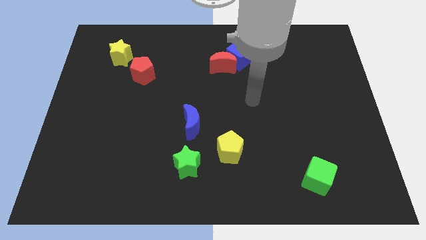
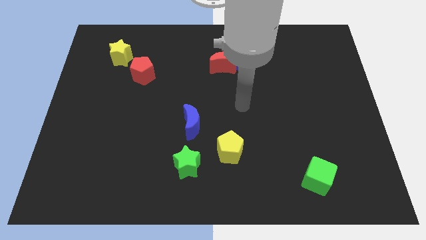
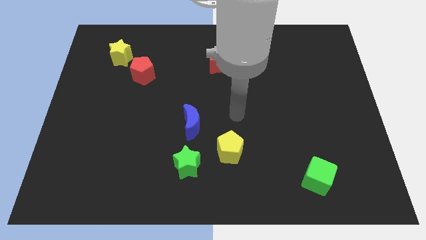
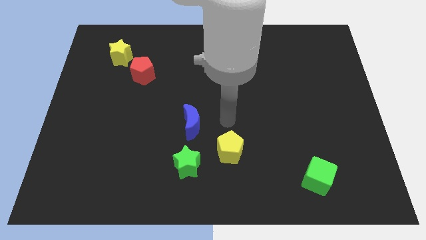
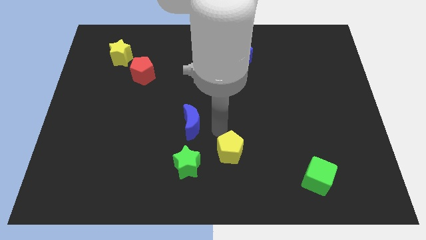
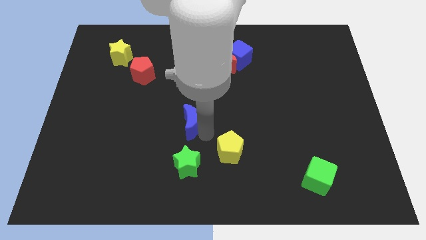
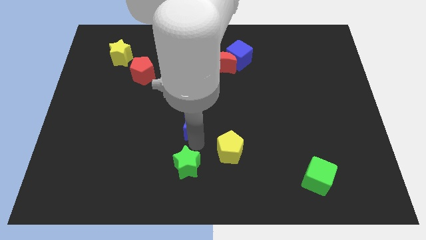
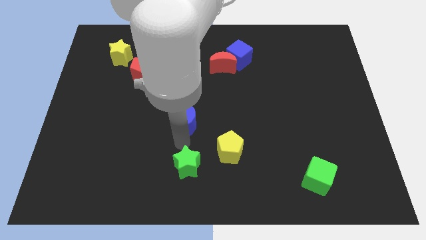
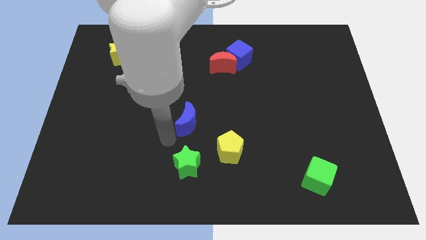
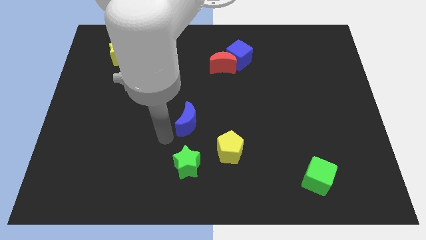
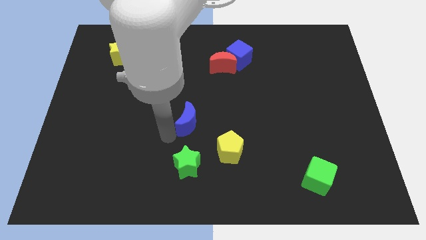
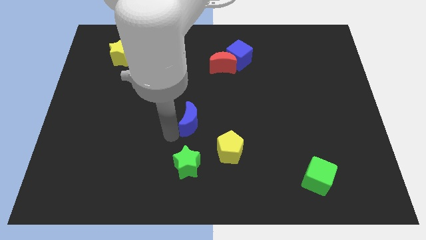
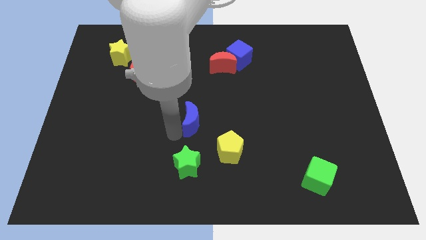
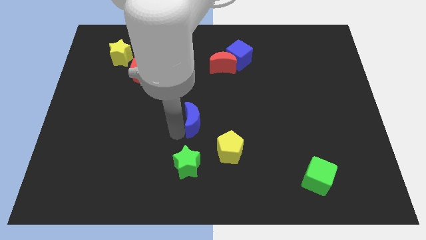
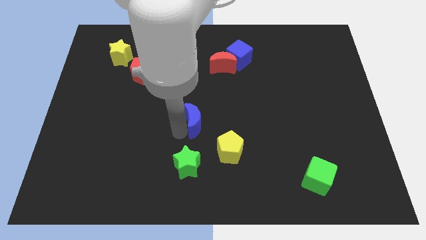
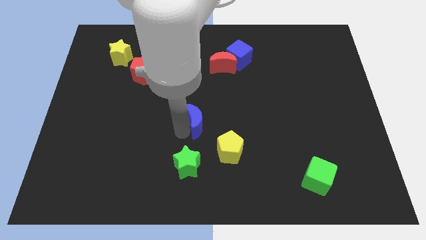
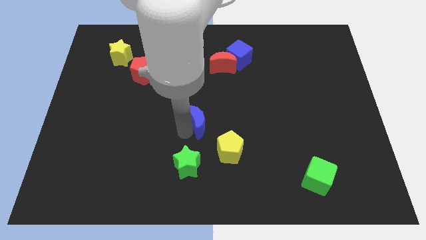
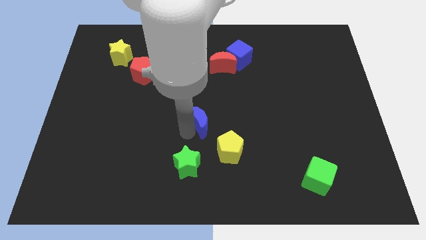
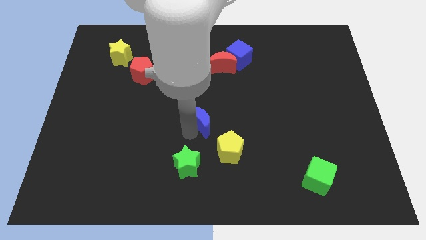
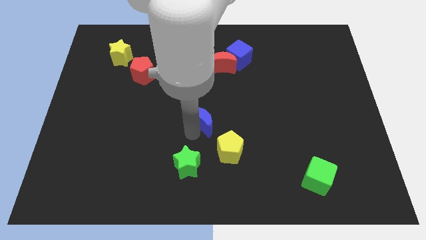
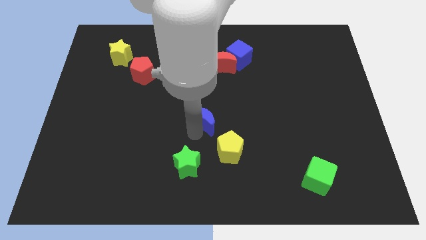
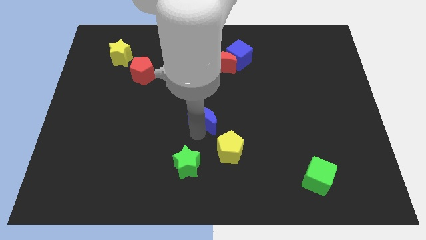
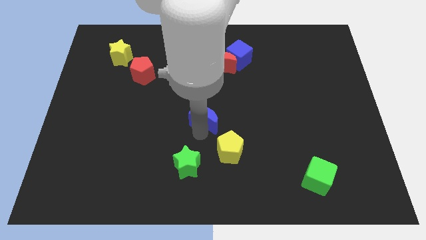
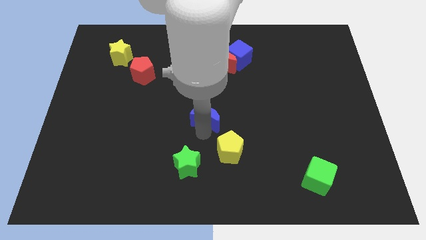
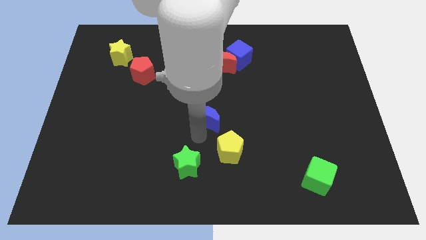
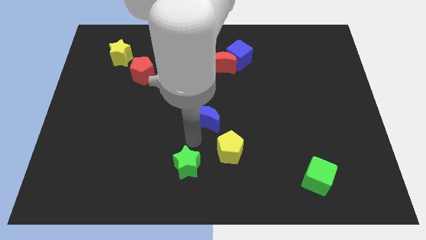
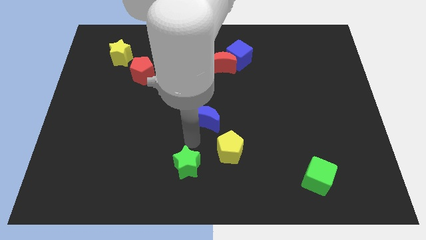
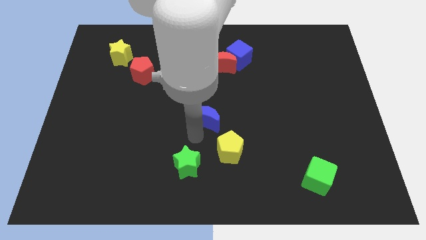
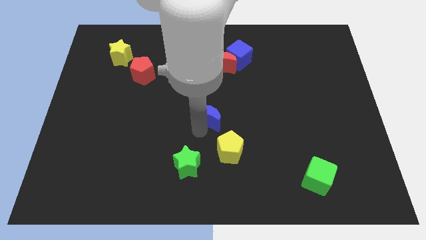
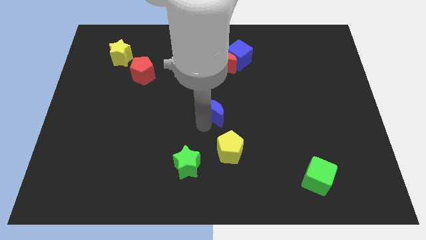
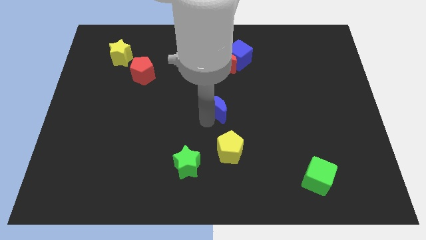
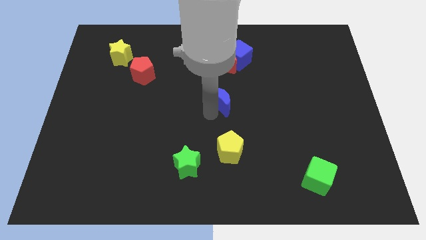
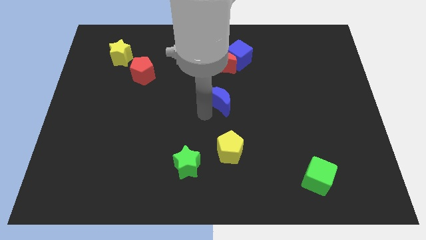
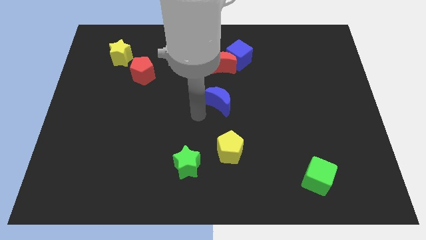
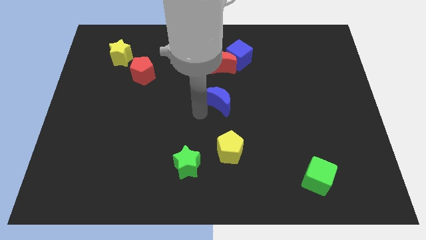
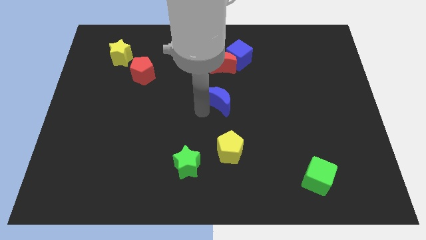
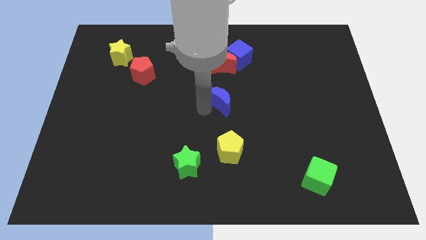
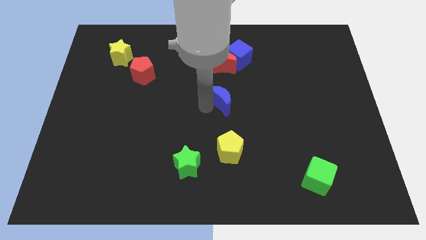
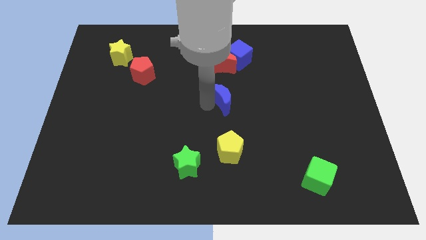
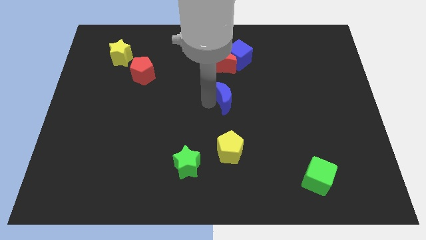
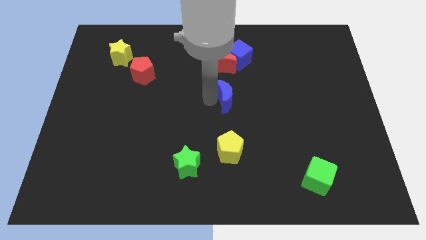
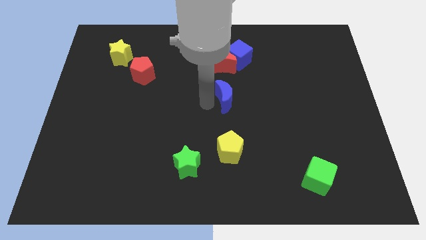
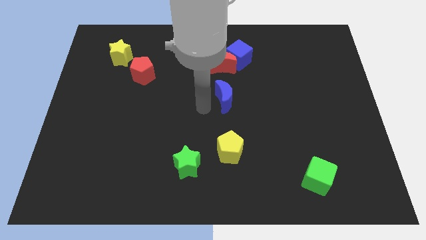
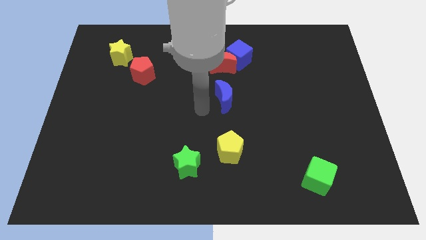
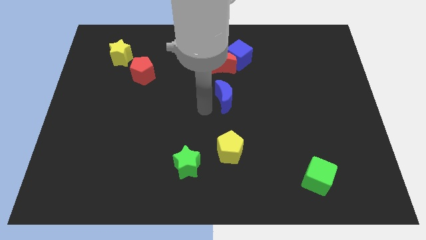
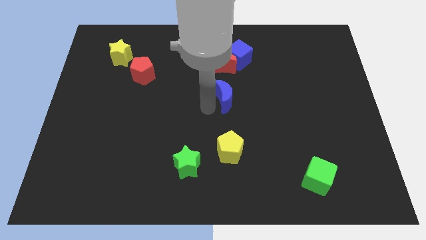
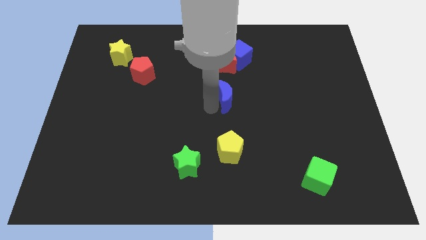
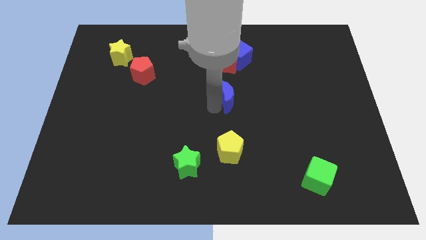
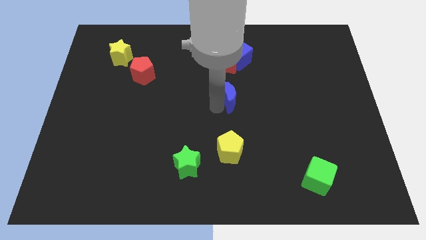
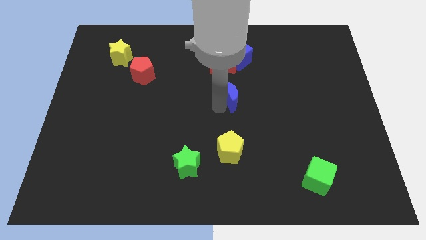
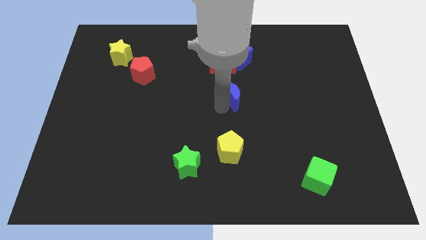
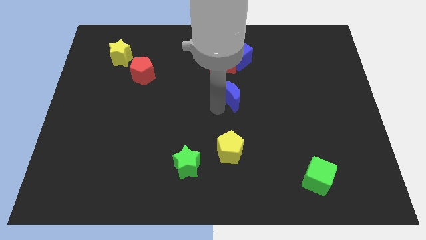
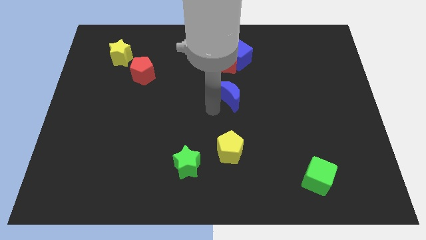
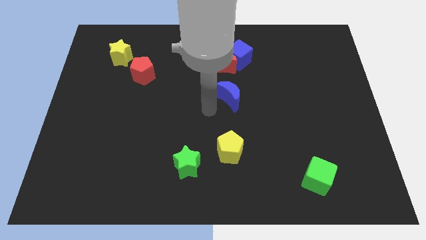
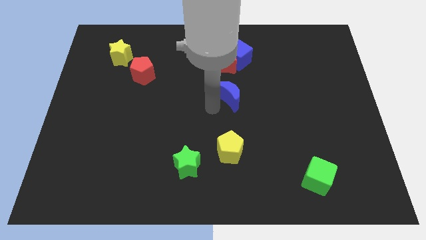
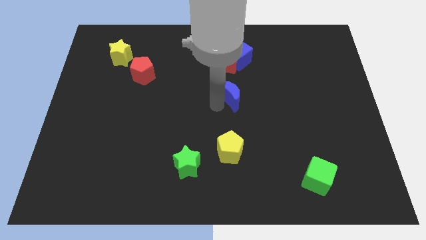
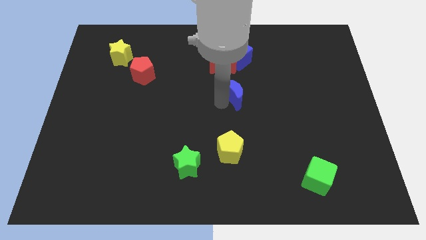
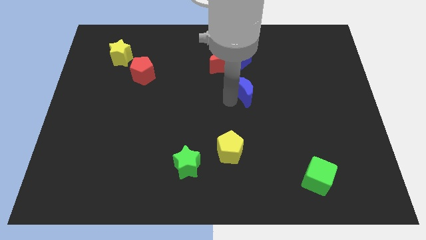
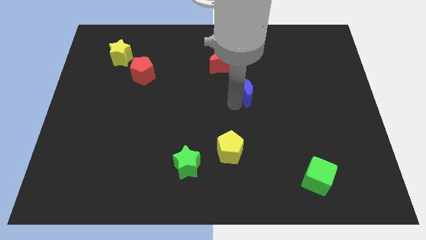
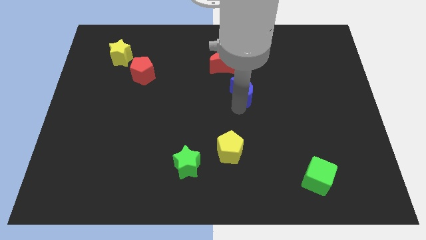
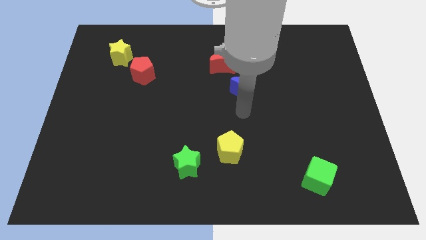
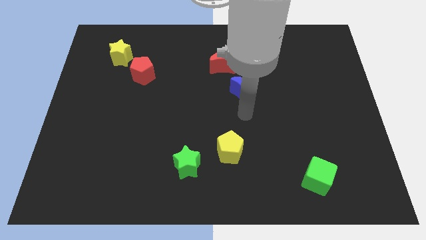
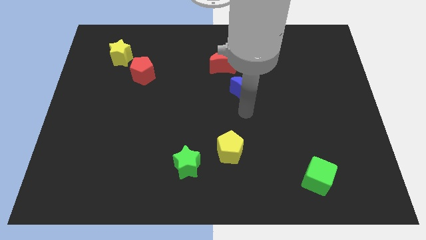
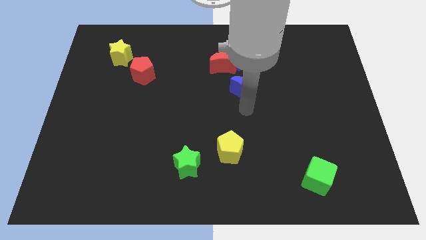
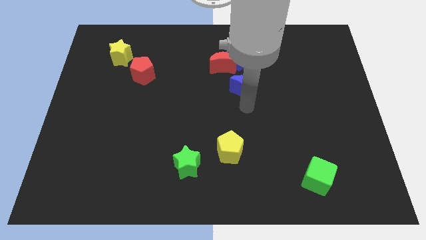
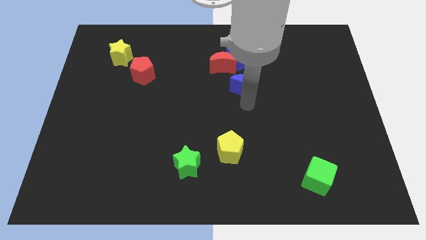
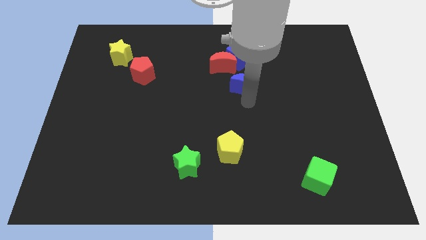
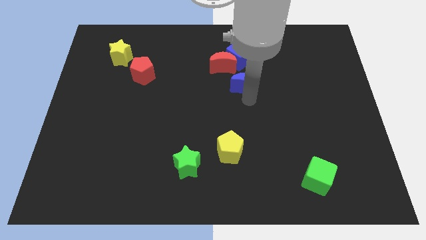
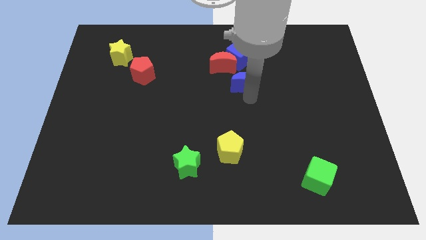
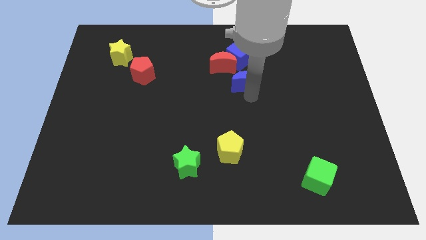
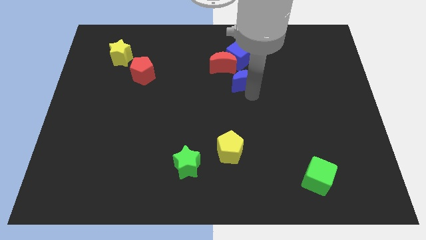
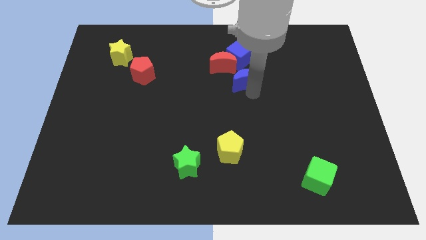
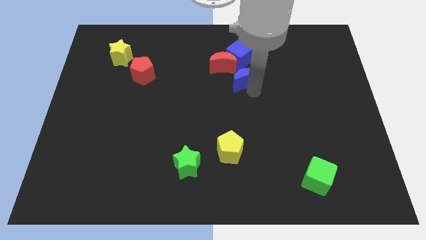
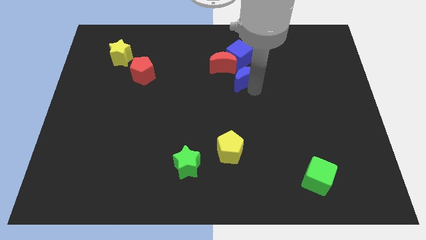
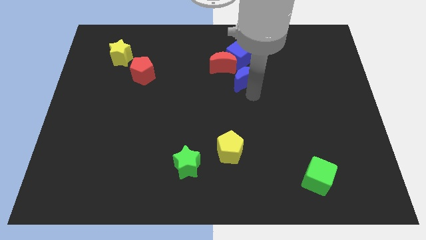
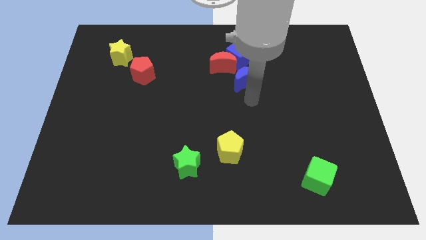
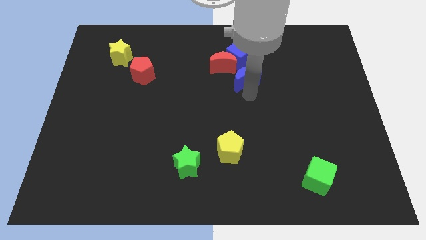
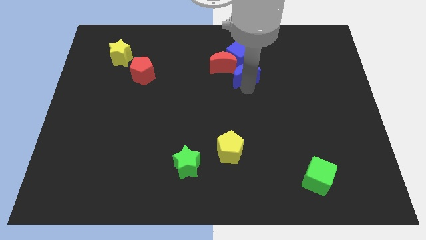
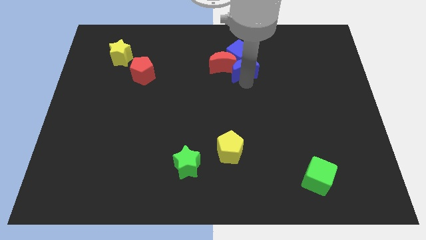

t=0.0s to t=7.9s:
push the blue moon towards the blue cube
